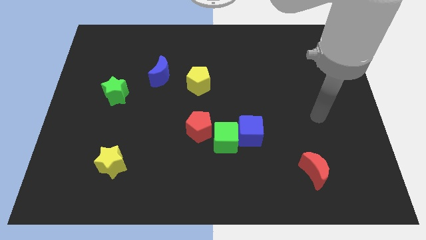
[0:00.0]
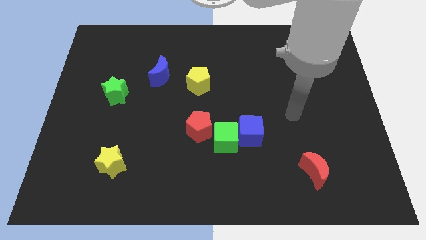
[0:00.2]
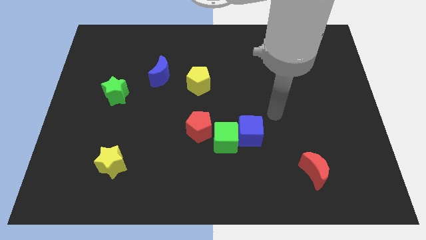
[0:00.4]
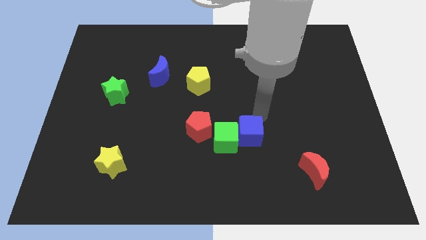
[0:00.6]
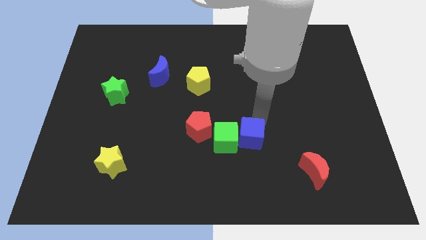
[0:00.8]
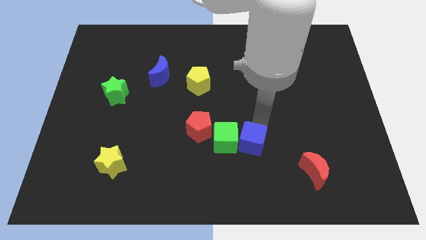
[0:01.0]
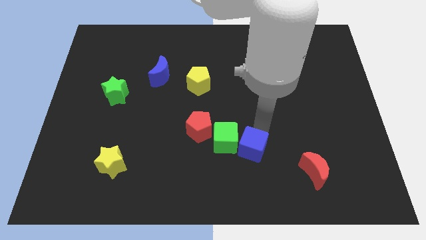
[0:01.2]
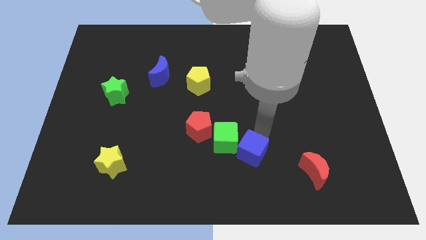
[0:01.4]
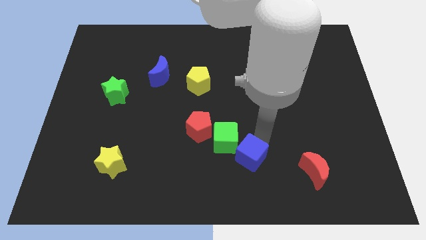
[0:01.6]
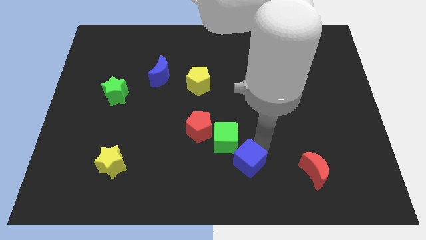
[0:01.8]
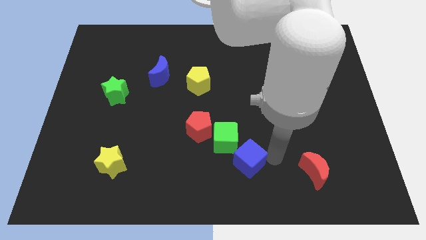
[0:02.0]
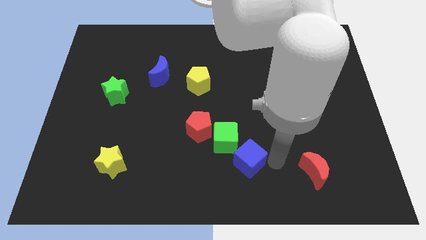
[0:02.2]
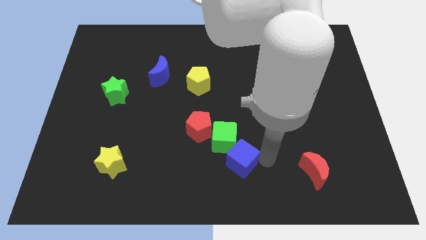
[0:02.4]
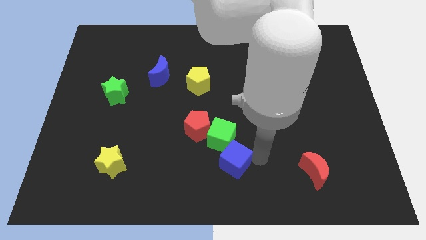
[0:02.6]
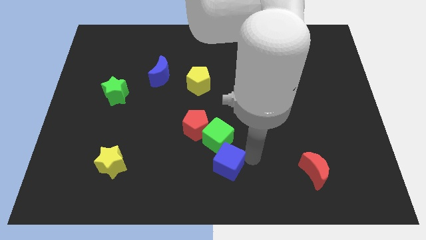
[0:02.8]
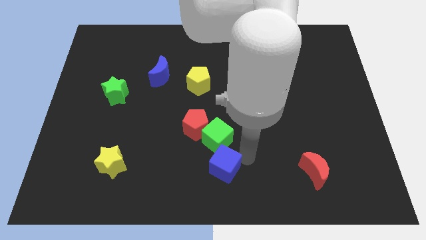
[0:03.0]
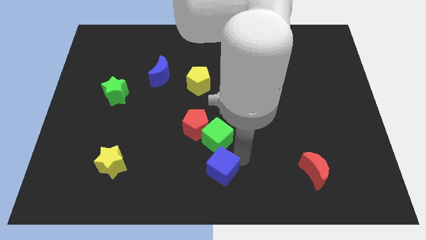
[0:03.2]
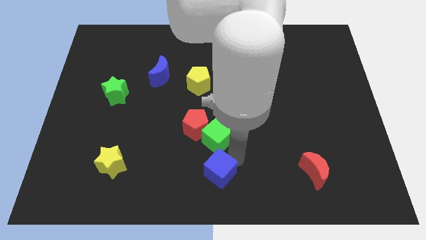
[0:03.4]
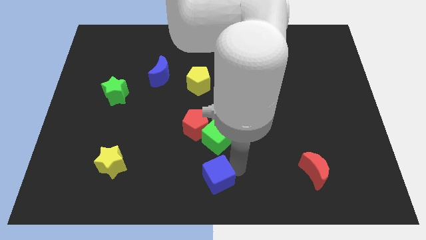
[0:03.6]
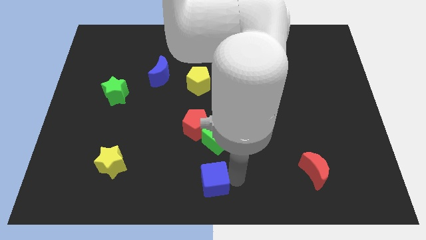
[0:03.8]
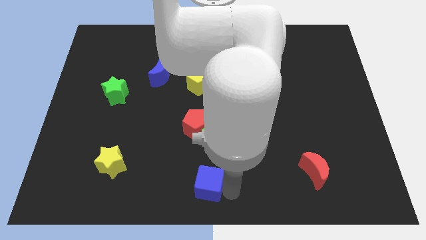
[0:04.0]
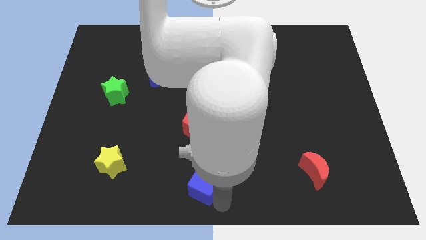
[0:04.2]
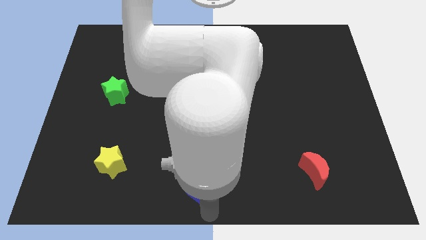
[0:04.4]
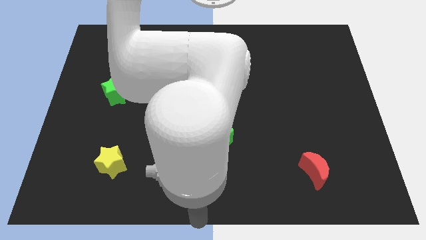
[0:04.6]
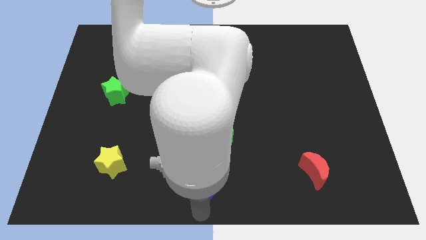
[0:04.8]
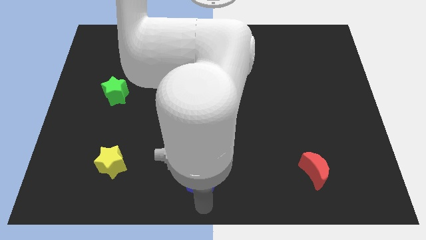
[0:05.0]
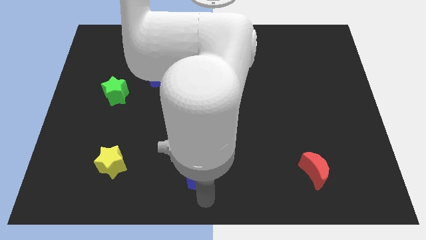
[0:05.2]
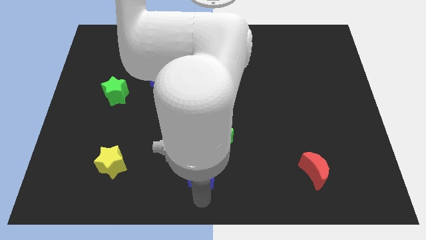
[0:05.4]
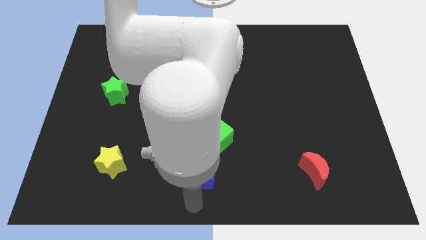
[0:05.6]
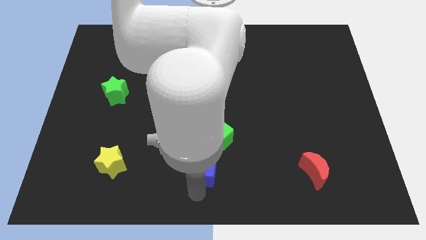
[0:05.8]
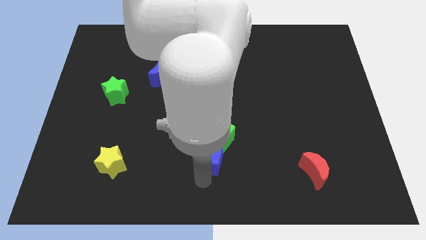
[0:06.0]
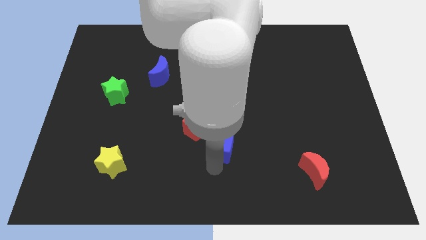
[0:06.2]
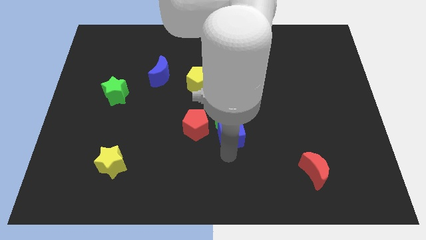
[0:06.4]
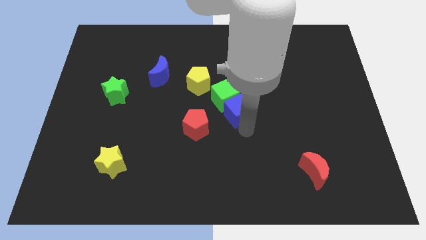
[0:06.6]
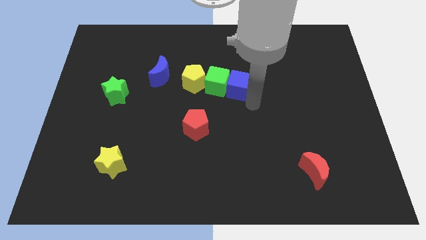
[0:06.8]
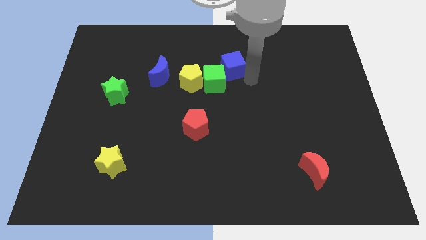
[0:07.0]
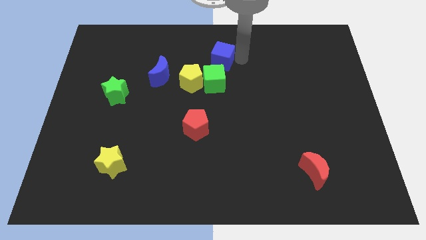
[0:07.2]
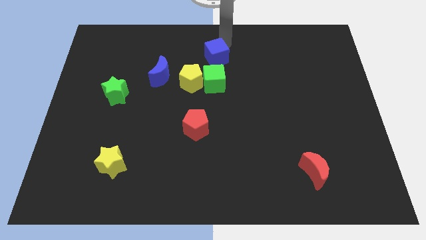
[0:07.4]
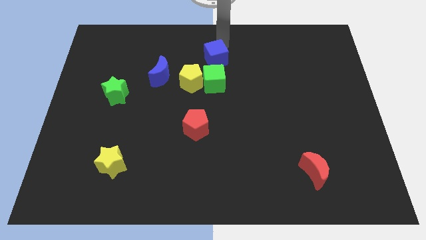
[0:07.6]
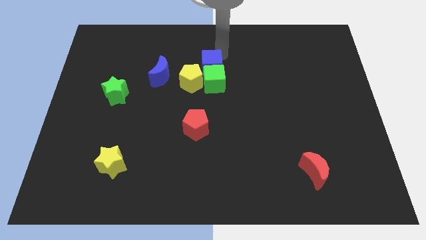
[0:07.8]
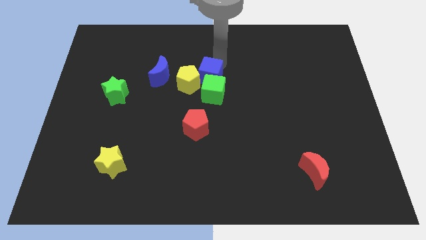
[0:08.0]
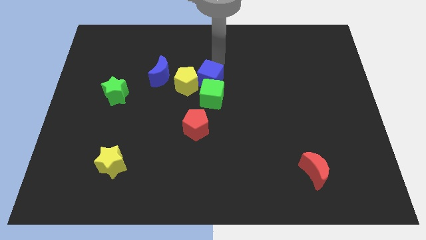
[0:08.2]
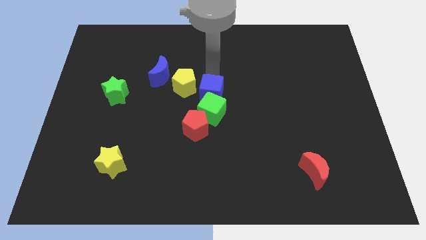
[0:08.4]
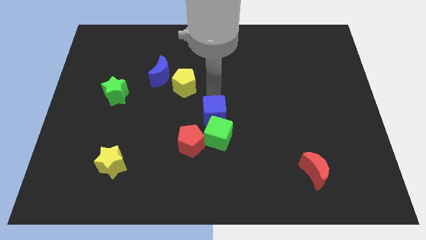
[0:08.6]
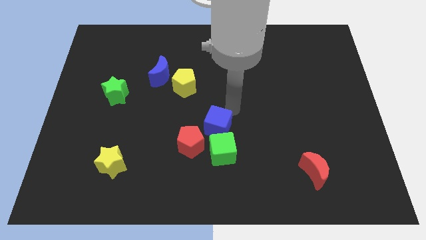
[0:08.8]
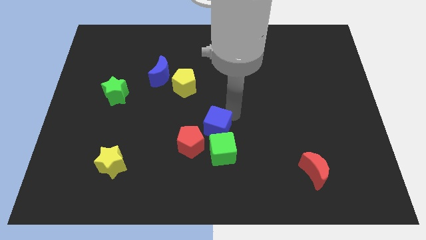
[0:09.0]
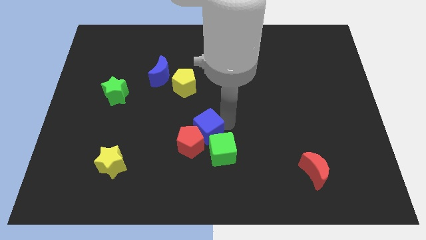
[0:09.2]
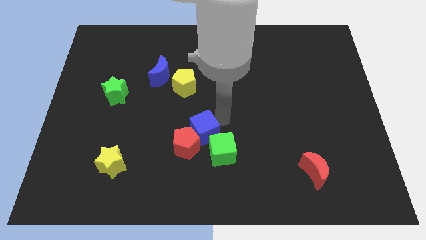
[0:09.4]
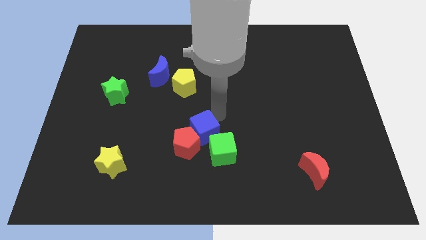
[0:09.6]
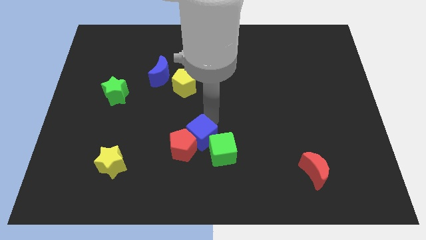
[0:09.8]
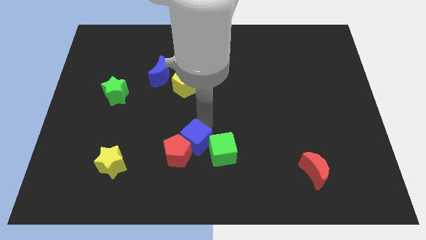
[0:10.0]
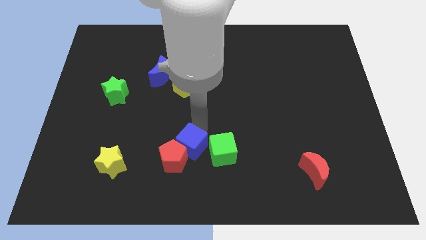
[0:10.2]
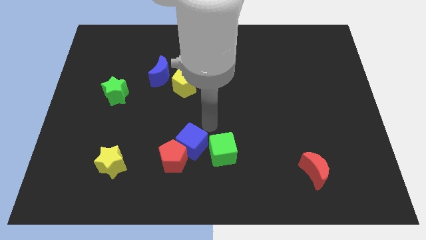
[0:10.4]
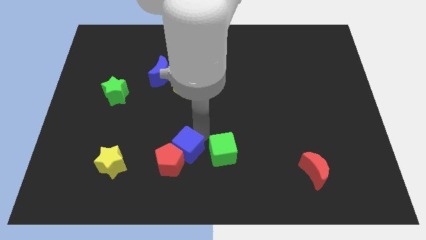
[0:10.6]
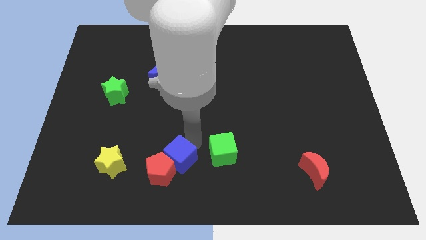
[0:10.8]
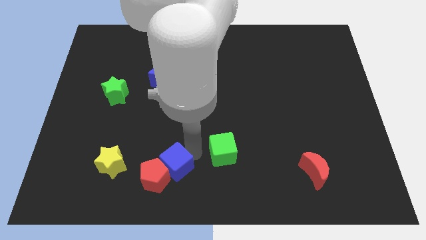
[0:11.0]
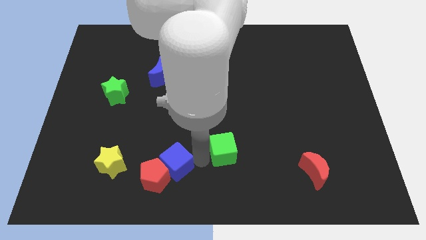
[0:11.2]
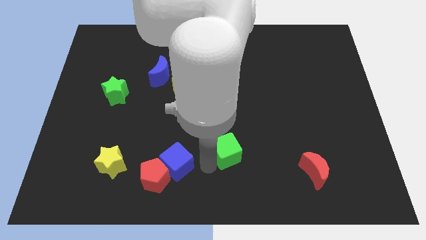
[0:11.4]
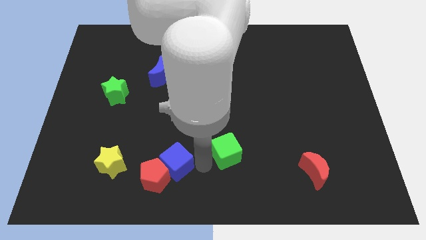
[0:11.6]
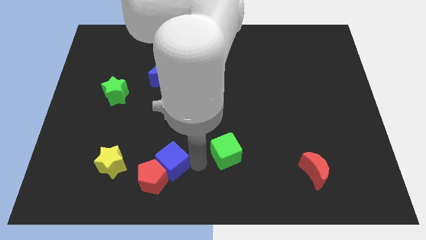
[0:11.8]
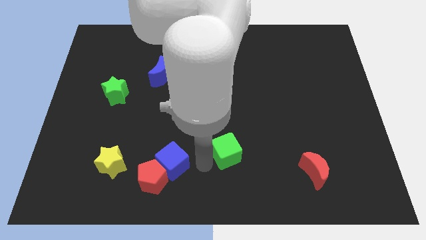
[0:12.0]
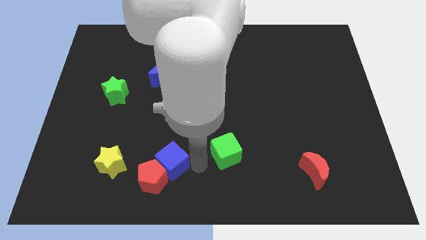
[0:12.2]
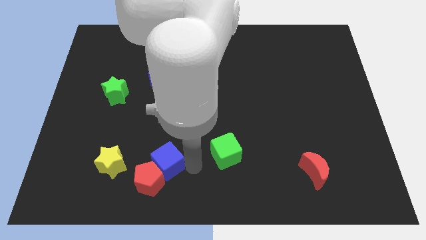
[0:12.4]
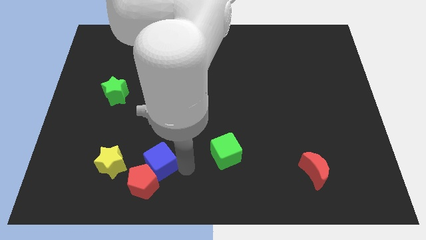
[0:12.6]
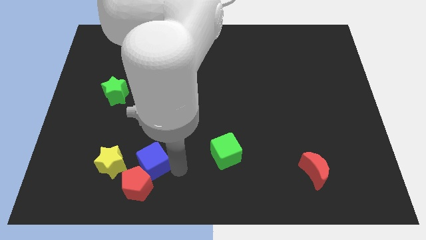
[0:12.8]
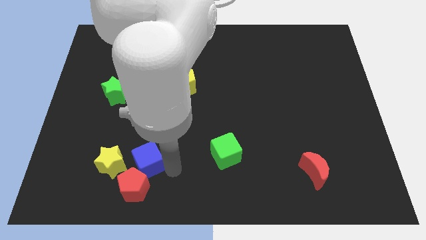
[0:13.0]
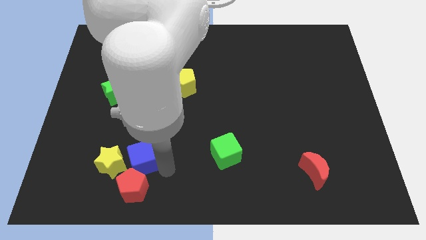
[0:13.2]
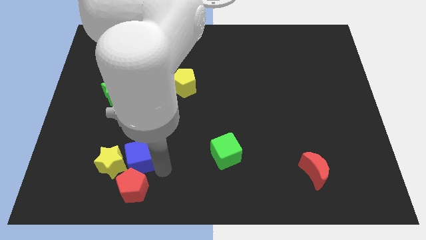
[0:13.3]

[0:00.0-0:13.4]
move the blue cube towards the yellow star

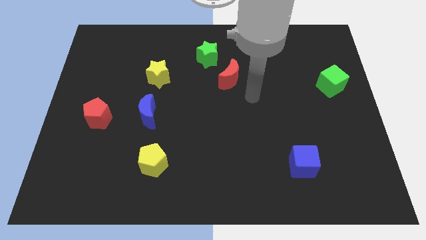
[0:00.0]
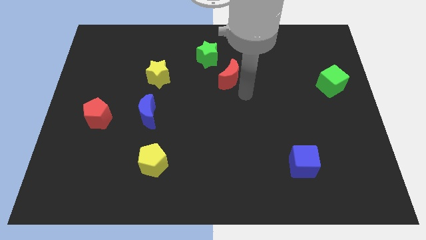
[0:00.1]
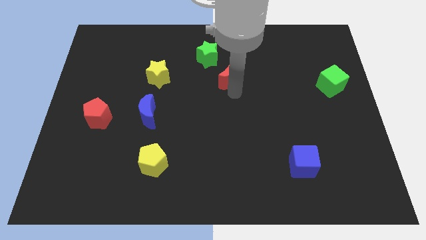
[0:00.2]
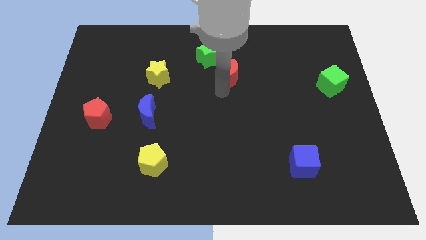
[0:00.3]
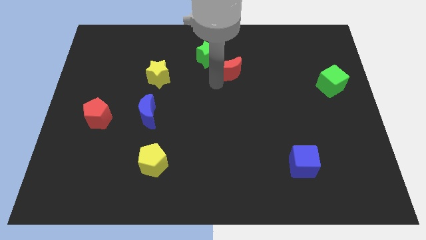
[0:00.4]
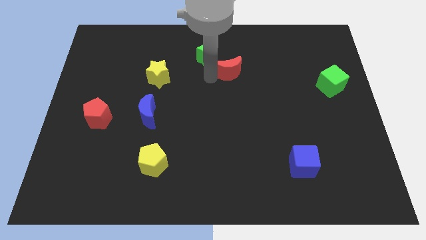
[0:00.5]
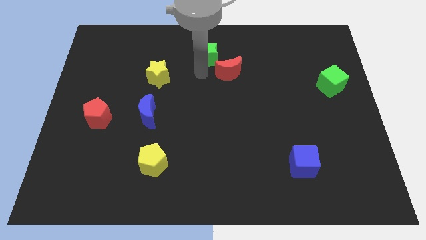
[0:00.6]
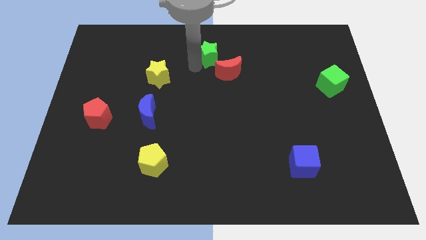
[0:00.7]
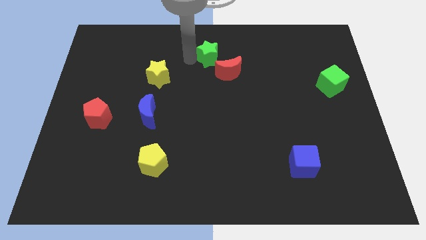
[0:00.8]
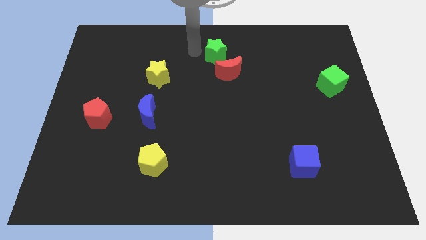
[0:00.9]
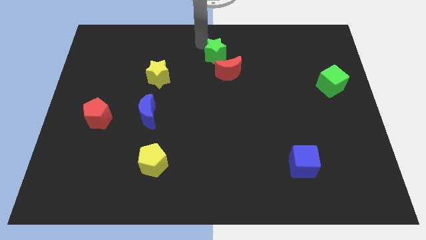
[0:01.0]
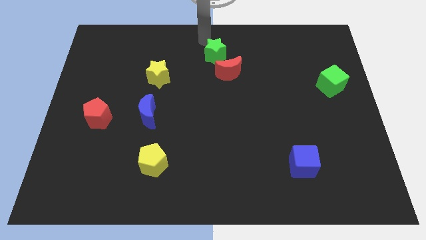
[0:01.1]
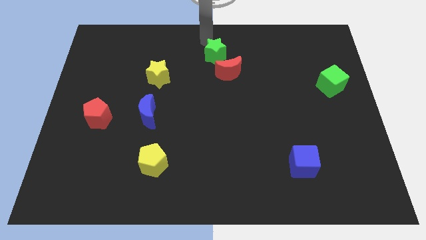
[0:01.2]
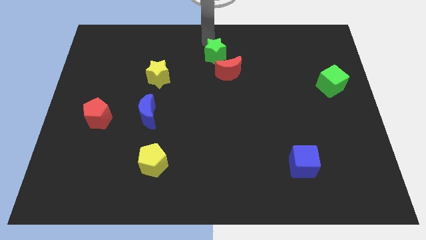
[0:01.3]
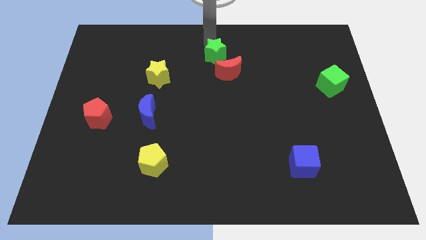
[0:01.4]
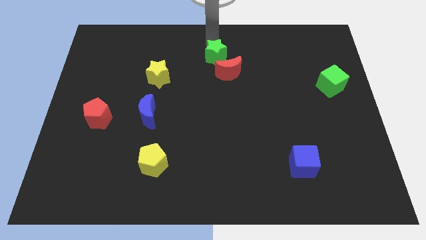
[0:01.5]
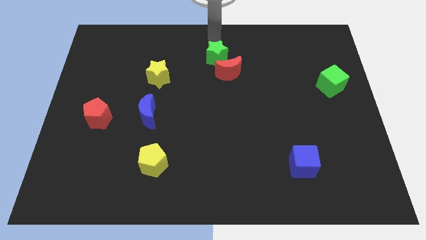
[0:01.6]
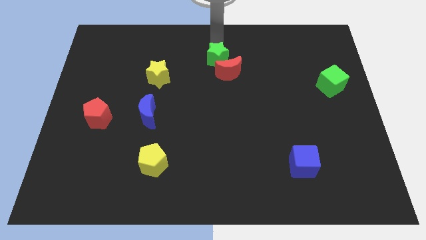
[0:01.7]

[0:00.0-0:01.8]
put the green star close to the red moon

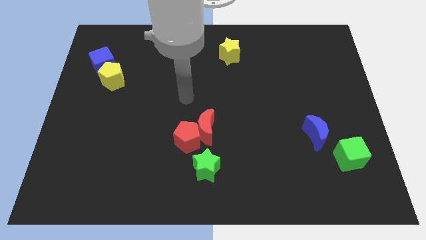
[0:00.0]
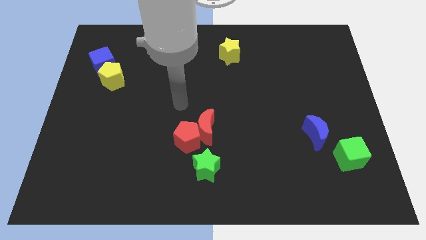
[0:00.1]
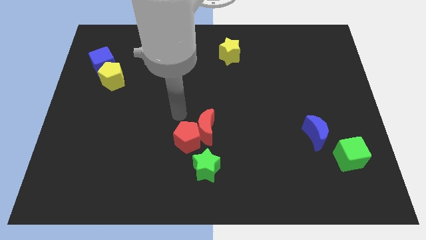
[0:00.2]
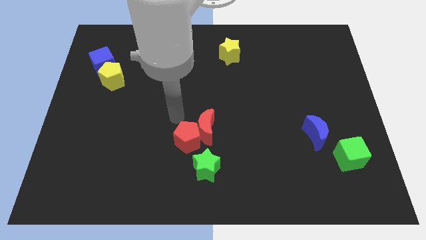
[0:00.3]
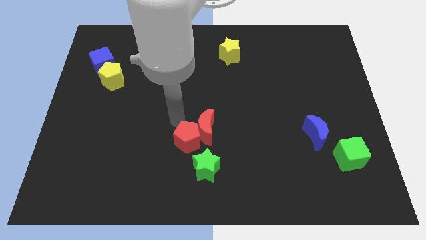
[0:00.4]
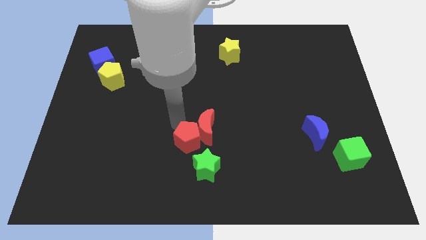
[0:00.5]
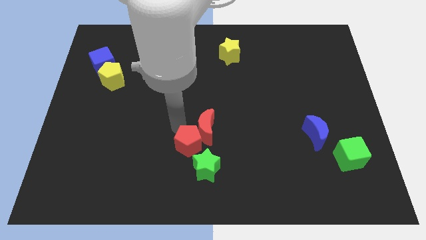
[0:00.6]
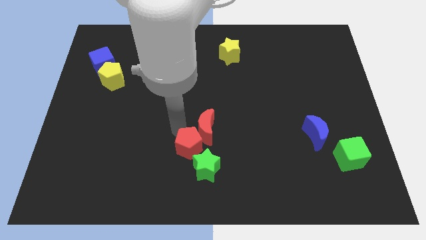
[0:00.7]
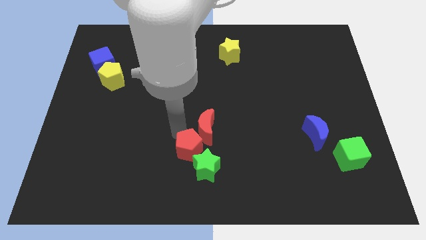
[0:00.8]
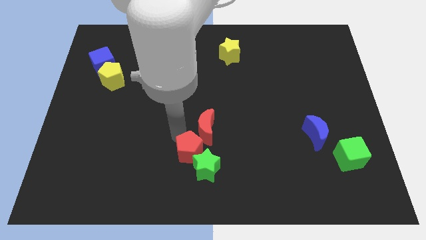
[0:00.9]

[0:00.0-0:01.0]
push the red pentagon close to the green star
